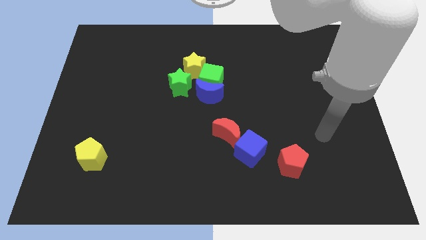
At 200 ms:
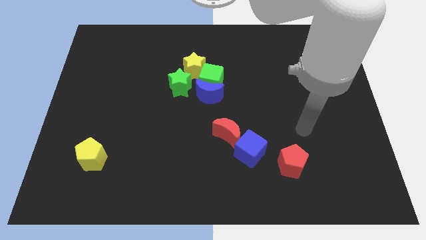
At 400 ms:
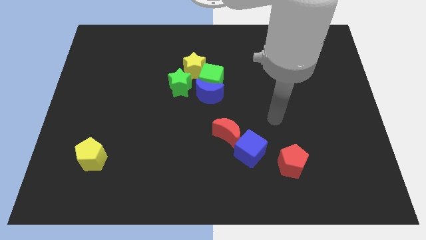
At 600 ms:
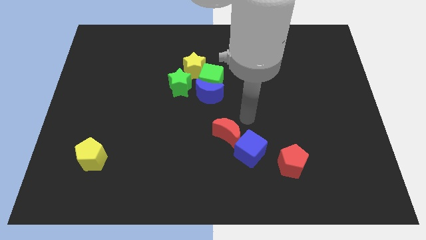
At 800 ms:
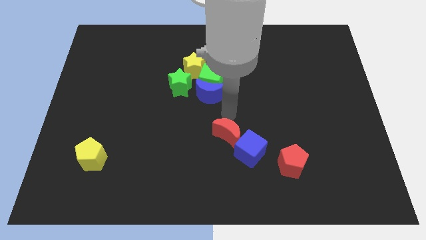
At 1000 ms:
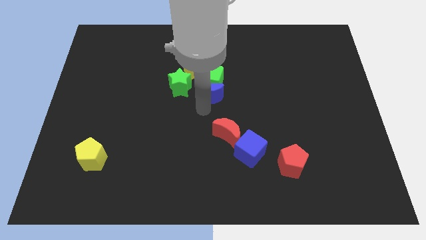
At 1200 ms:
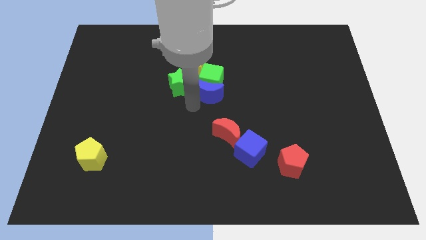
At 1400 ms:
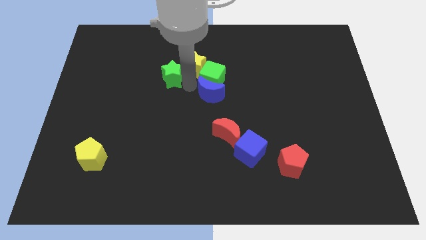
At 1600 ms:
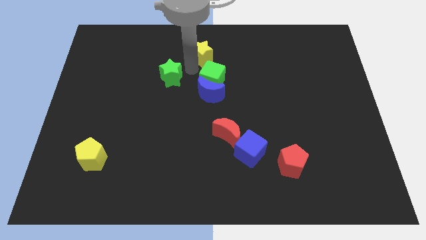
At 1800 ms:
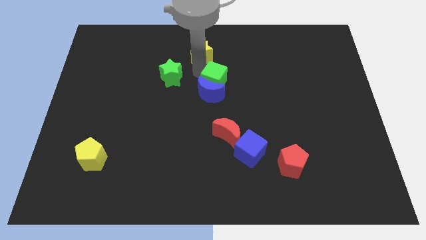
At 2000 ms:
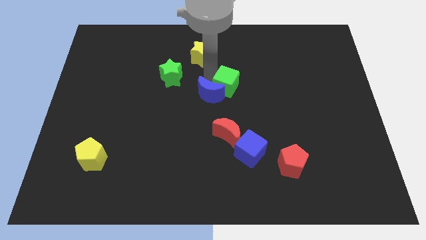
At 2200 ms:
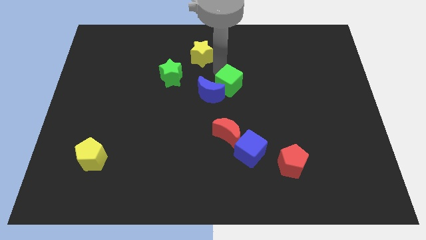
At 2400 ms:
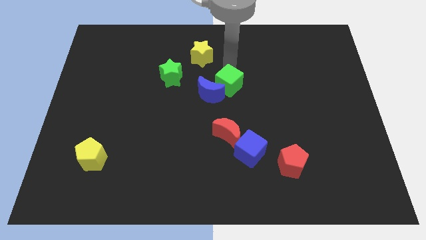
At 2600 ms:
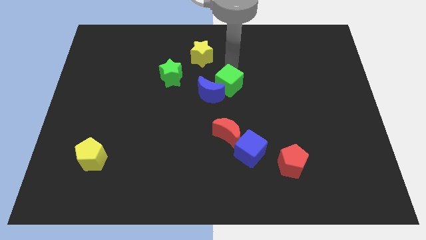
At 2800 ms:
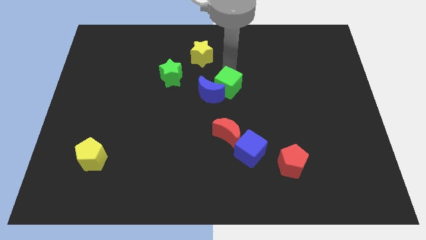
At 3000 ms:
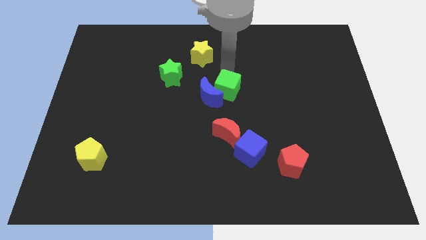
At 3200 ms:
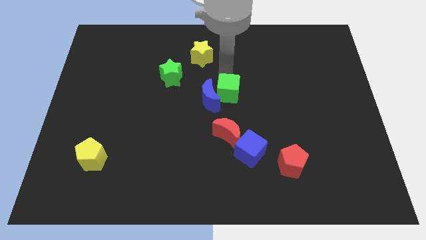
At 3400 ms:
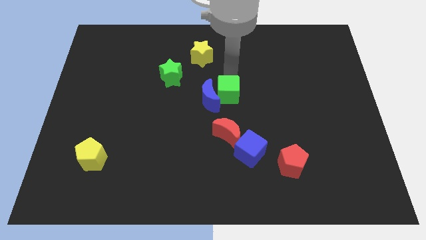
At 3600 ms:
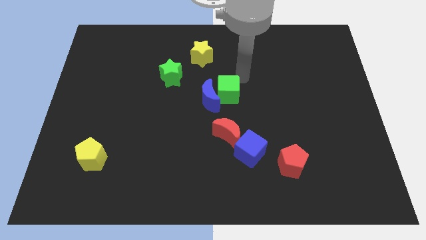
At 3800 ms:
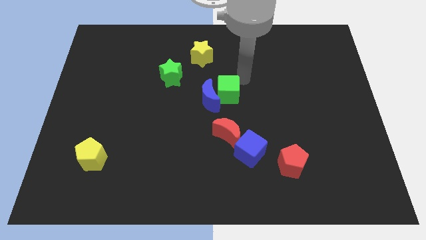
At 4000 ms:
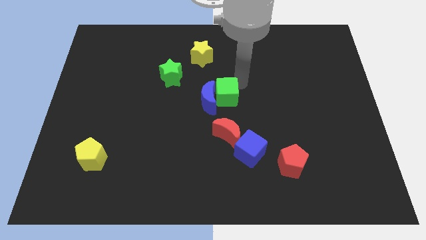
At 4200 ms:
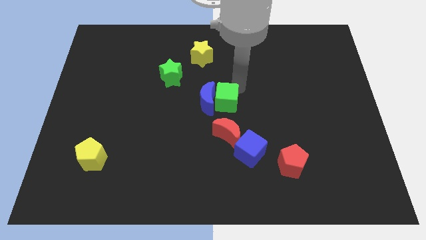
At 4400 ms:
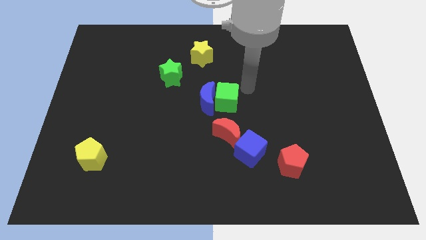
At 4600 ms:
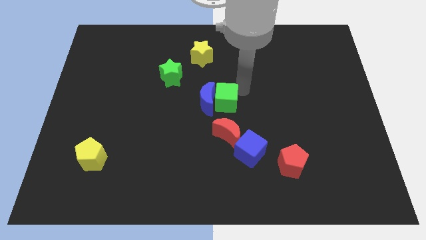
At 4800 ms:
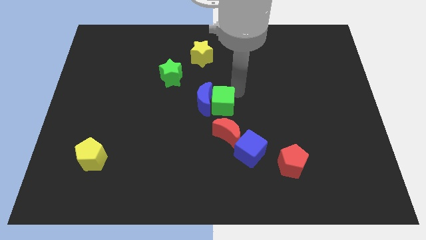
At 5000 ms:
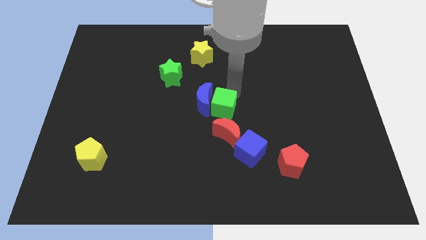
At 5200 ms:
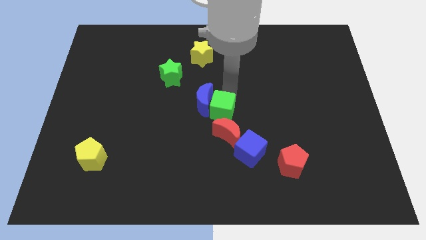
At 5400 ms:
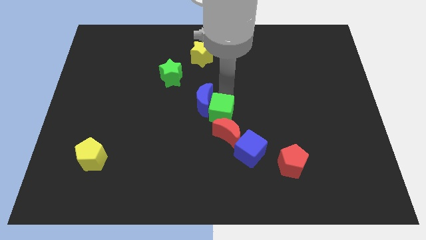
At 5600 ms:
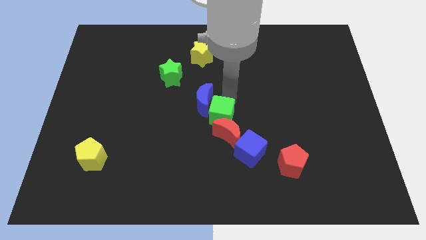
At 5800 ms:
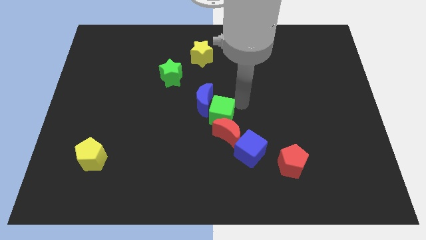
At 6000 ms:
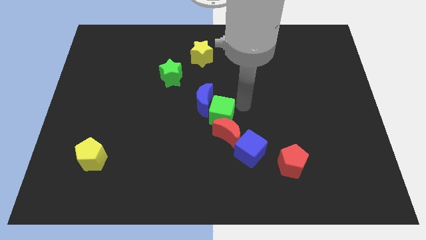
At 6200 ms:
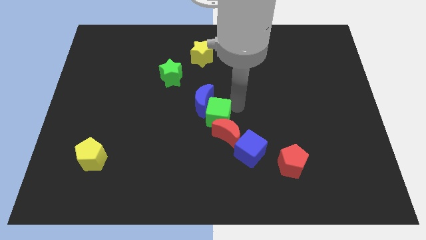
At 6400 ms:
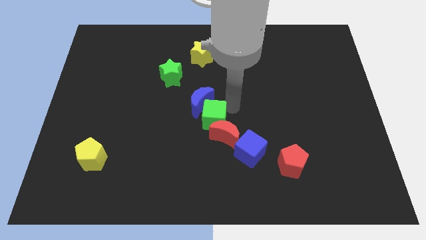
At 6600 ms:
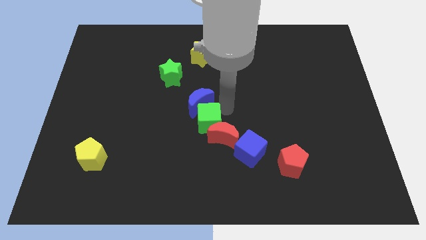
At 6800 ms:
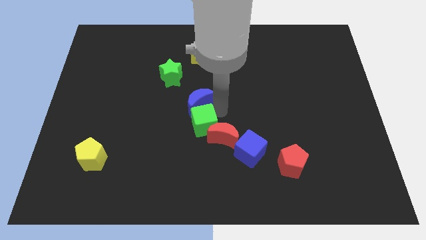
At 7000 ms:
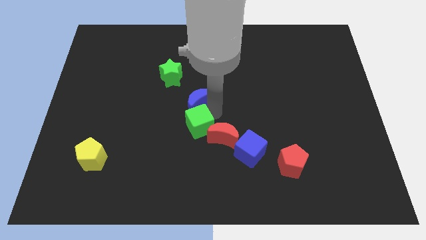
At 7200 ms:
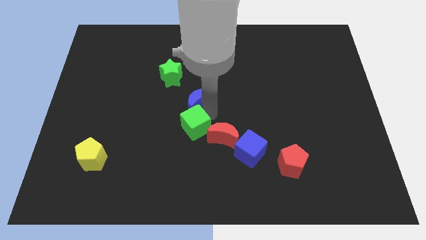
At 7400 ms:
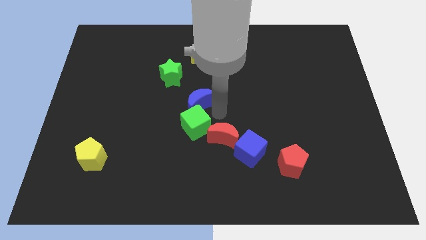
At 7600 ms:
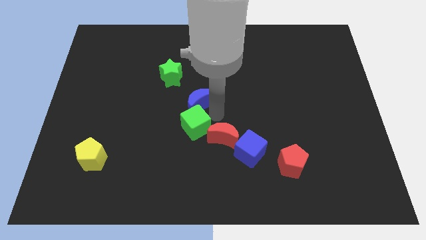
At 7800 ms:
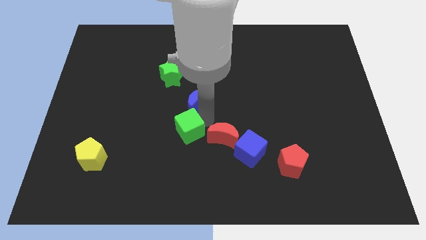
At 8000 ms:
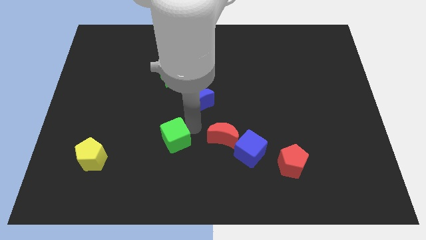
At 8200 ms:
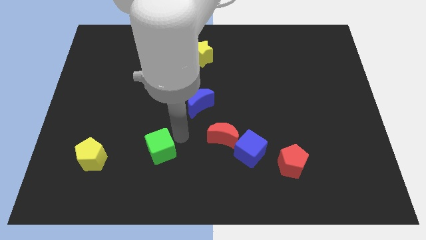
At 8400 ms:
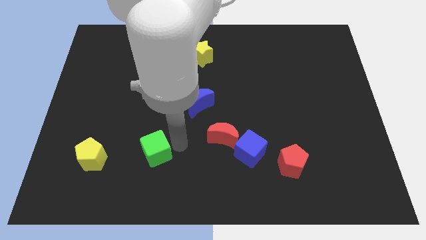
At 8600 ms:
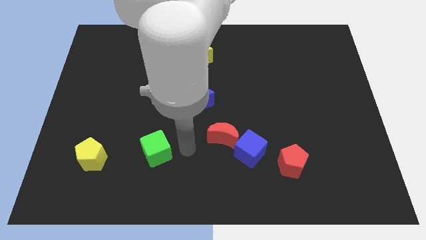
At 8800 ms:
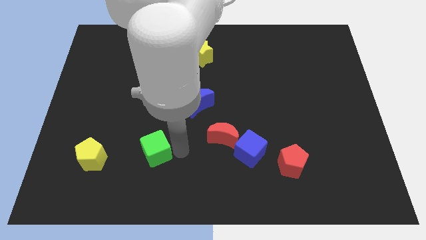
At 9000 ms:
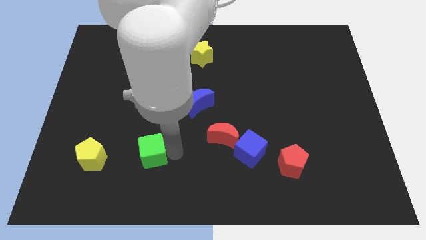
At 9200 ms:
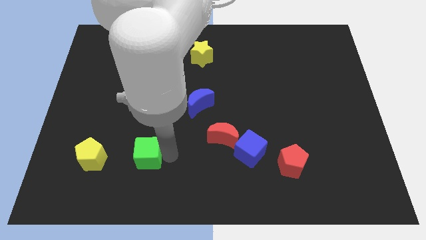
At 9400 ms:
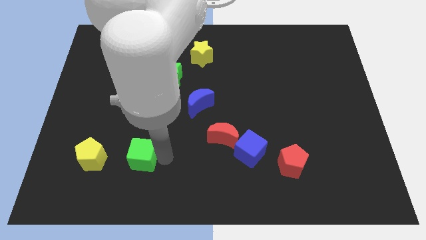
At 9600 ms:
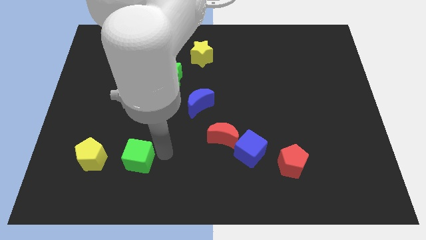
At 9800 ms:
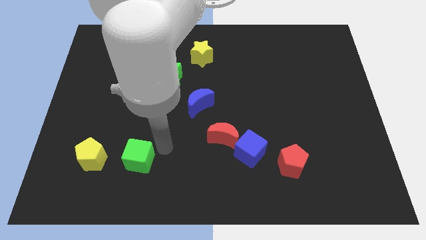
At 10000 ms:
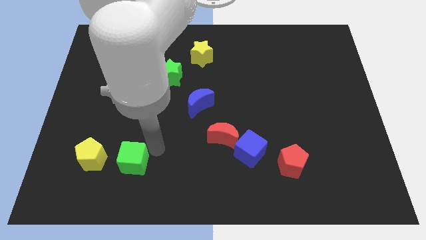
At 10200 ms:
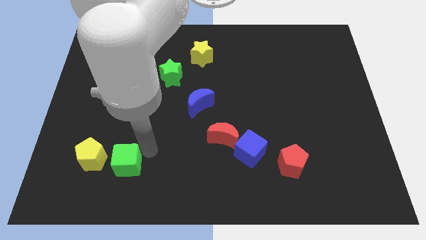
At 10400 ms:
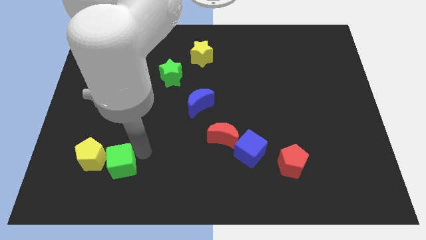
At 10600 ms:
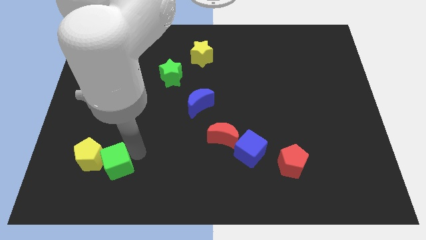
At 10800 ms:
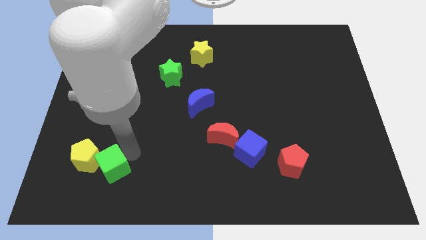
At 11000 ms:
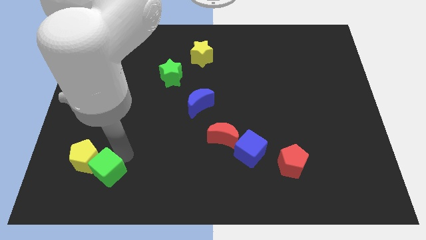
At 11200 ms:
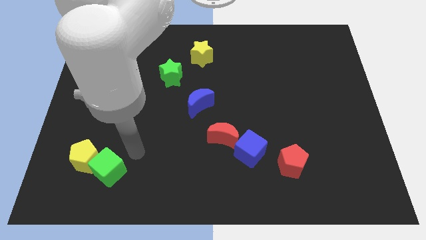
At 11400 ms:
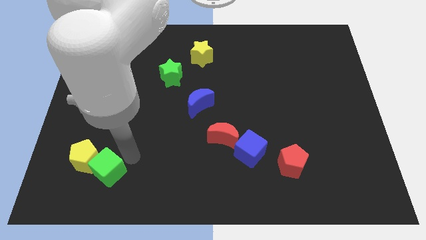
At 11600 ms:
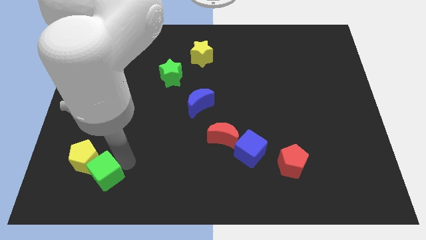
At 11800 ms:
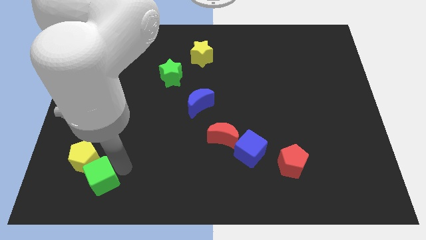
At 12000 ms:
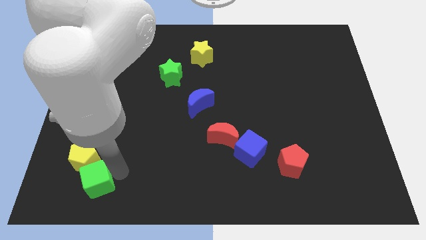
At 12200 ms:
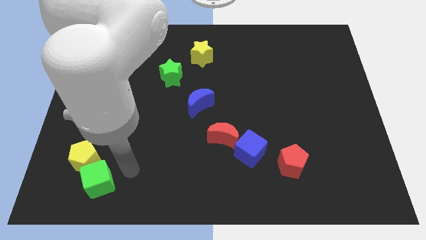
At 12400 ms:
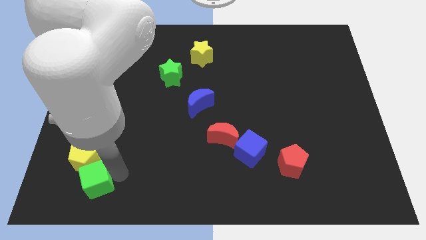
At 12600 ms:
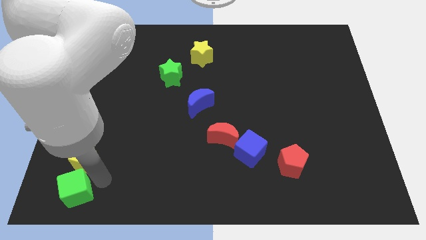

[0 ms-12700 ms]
move the green cube to the bottom left
